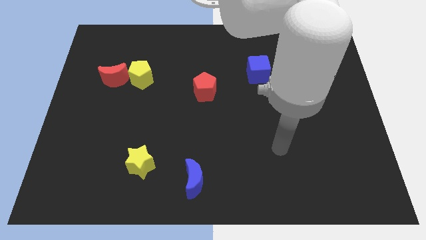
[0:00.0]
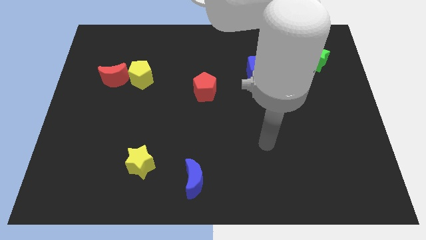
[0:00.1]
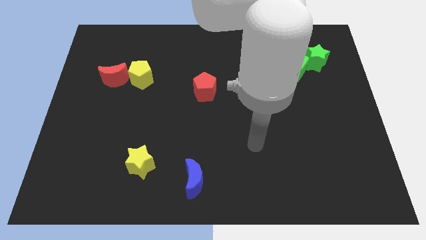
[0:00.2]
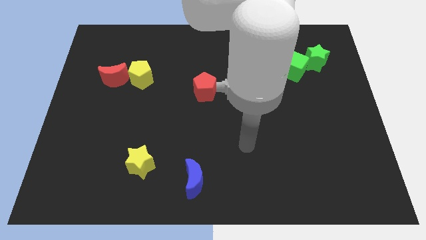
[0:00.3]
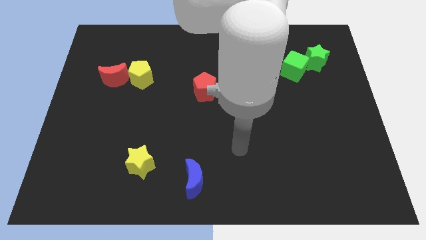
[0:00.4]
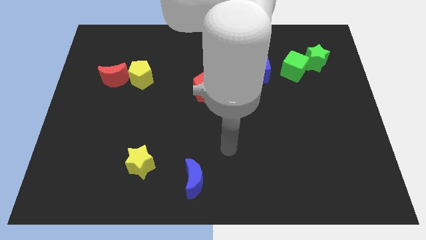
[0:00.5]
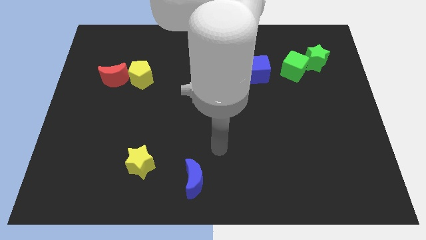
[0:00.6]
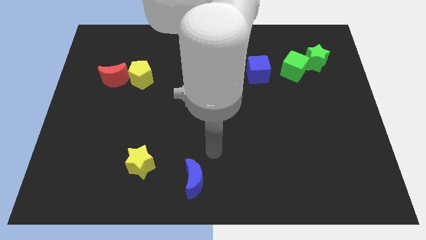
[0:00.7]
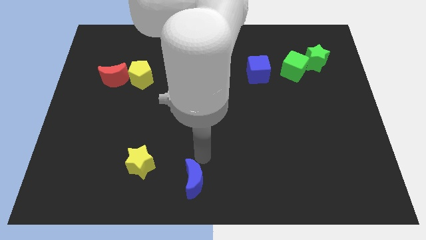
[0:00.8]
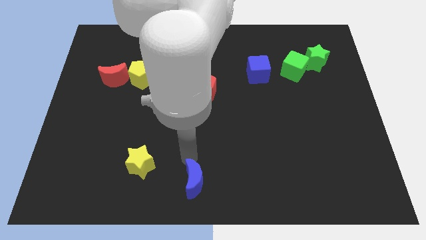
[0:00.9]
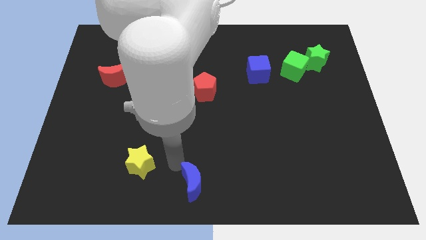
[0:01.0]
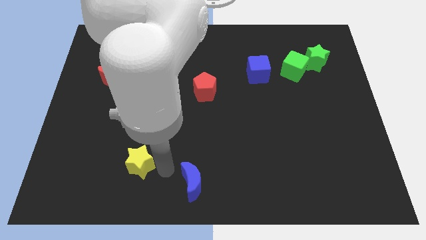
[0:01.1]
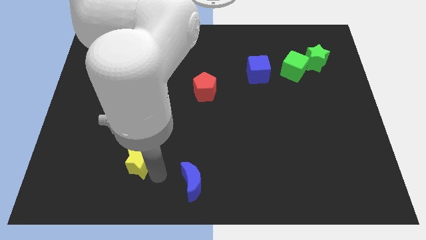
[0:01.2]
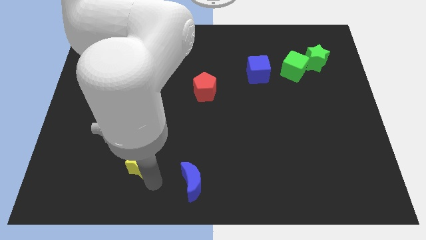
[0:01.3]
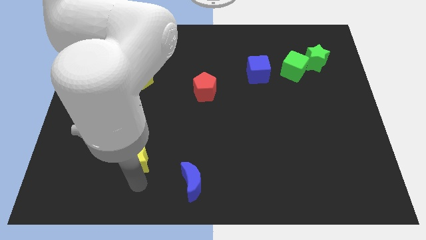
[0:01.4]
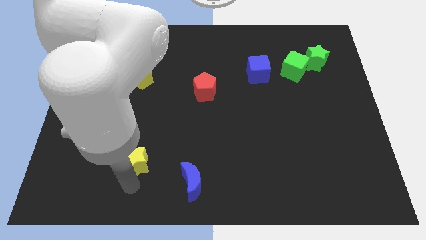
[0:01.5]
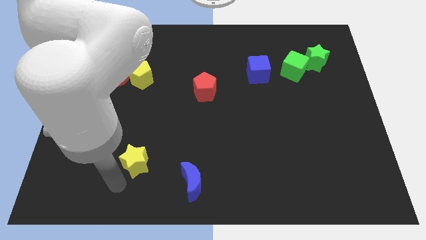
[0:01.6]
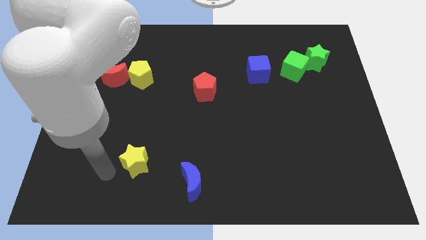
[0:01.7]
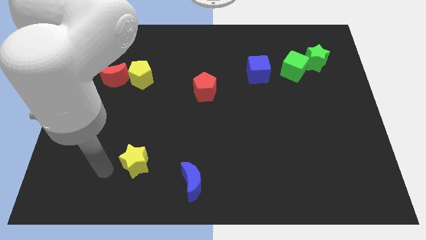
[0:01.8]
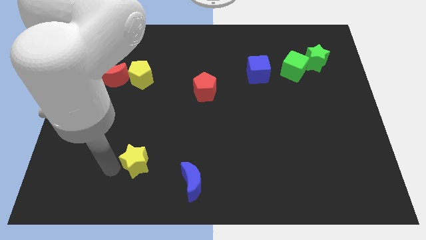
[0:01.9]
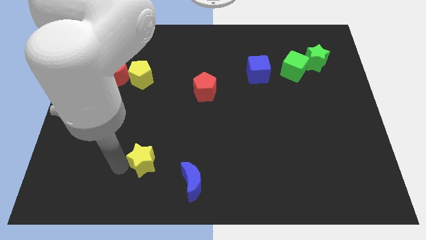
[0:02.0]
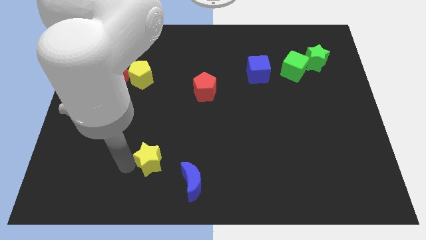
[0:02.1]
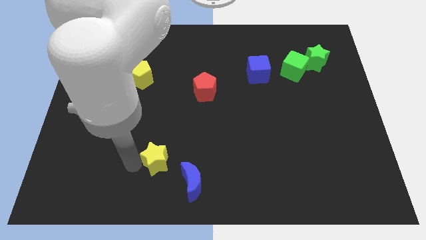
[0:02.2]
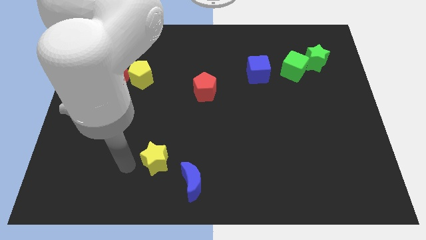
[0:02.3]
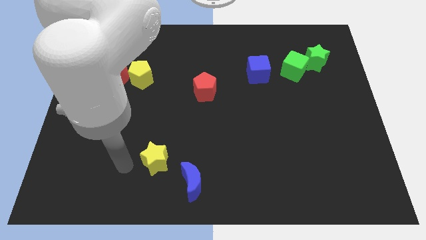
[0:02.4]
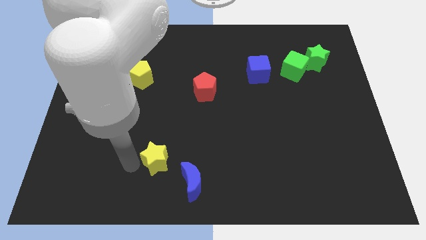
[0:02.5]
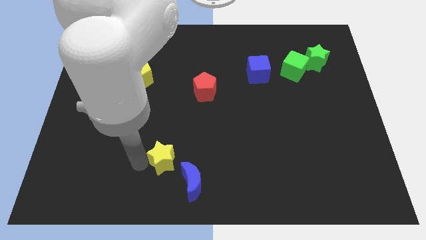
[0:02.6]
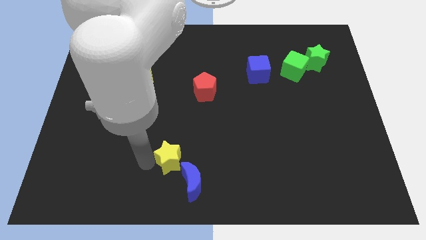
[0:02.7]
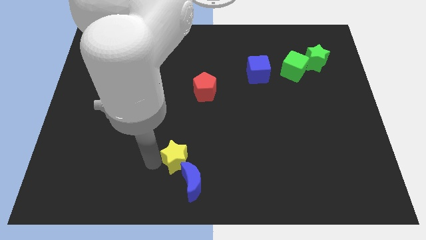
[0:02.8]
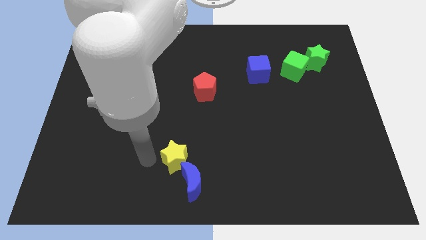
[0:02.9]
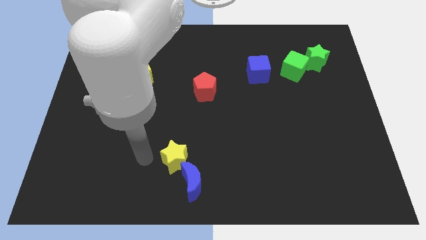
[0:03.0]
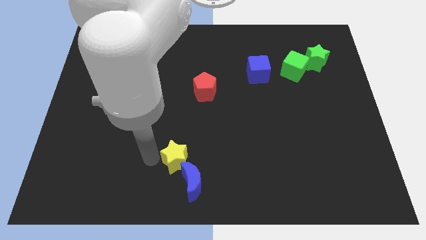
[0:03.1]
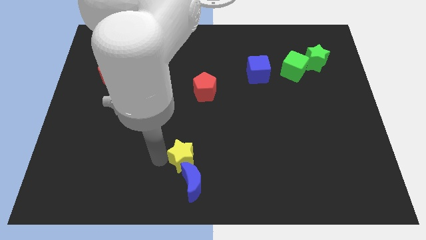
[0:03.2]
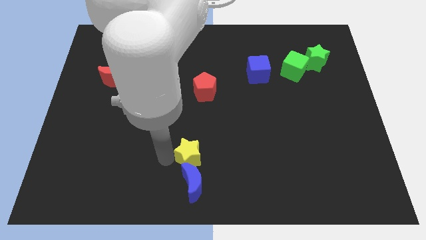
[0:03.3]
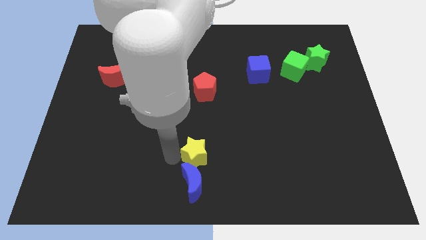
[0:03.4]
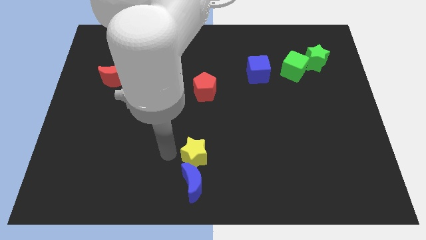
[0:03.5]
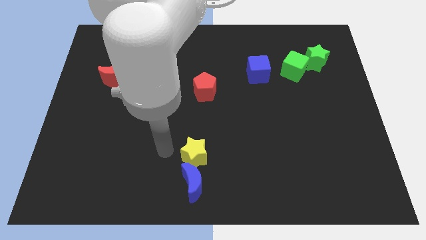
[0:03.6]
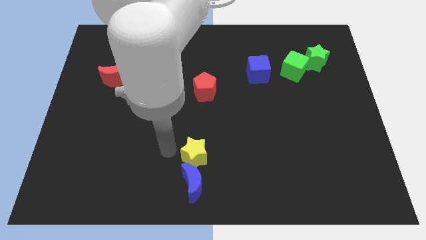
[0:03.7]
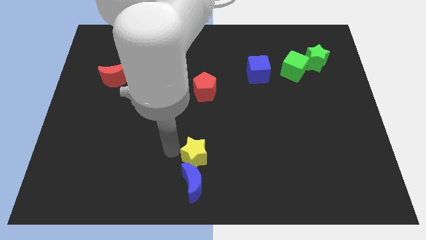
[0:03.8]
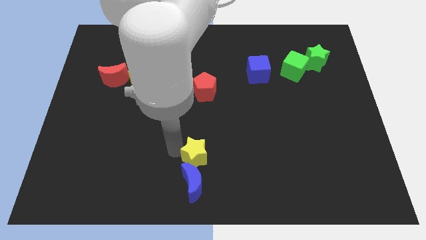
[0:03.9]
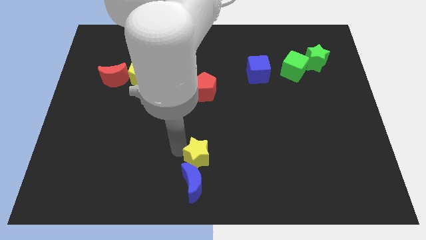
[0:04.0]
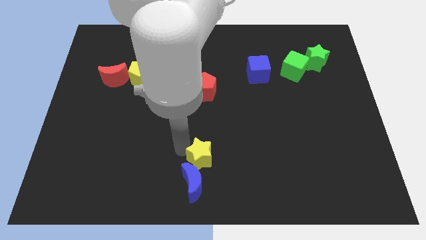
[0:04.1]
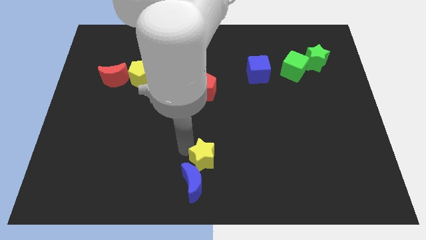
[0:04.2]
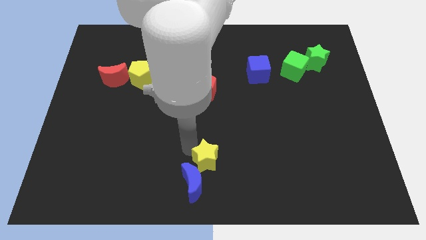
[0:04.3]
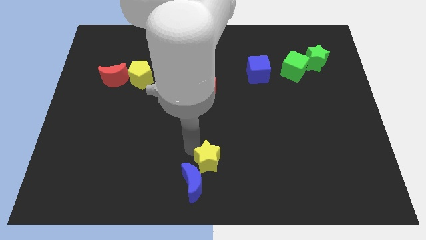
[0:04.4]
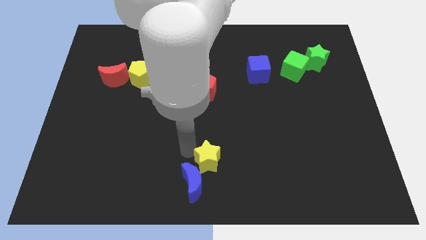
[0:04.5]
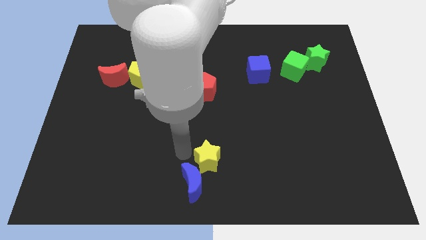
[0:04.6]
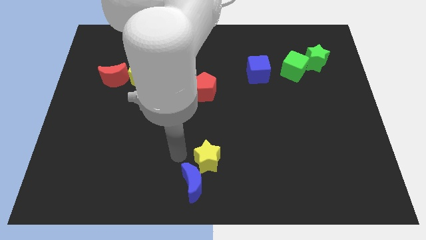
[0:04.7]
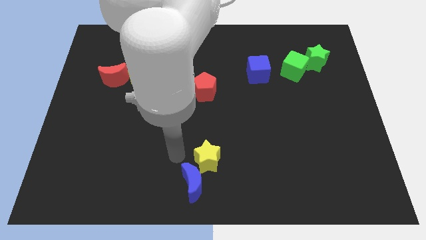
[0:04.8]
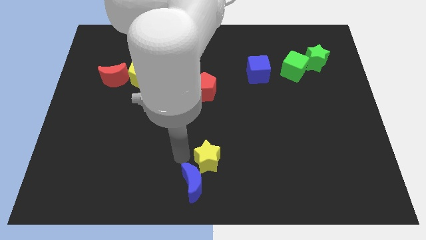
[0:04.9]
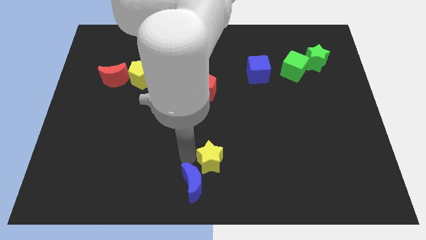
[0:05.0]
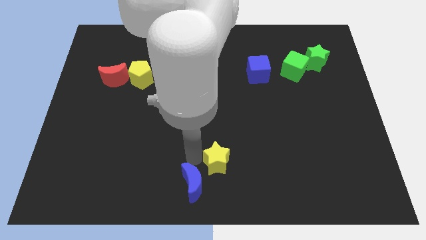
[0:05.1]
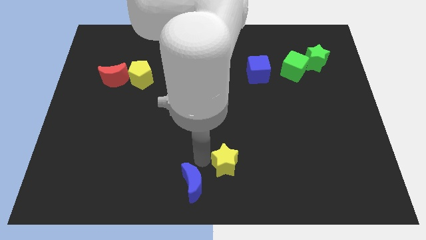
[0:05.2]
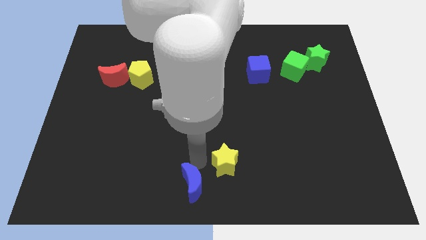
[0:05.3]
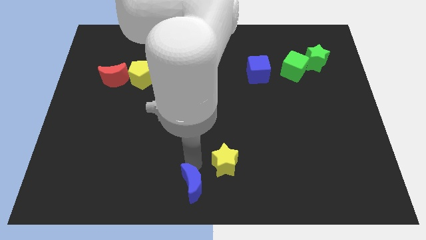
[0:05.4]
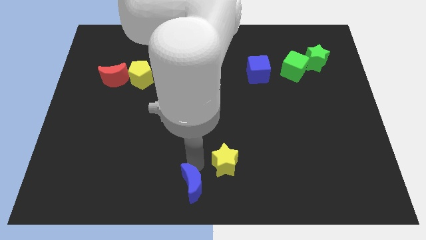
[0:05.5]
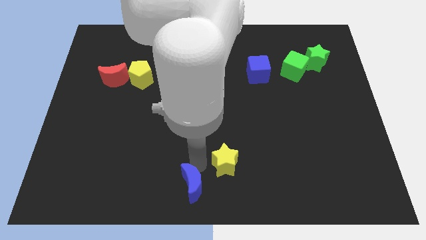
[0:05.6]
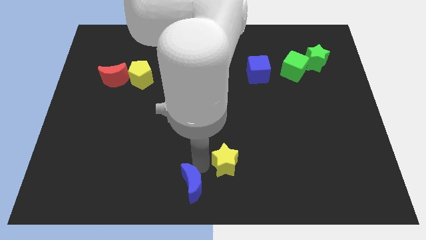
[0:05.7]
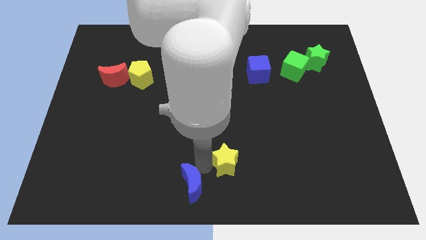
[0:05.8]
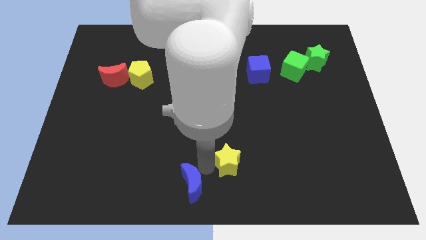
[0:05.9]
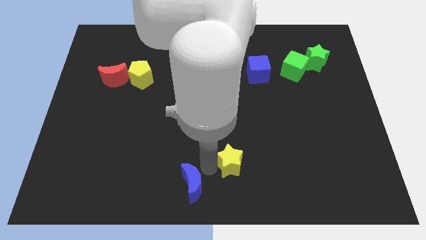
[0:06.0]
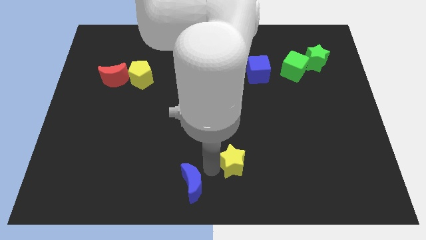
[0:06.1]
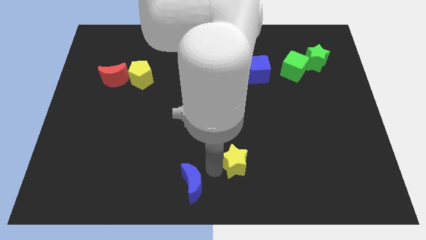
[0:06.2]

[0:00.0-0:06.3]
push the yellow star to the right

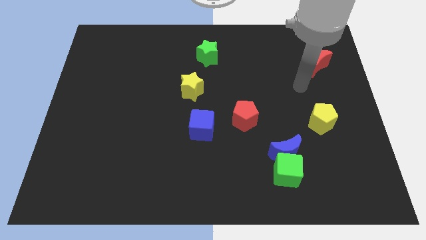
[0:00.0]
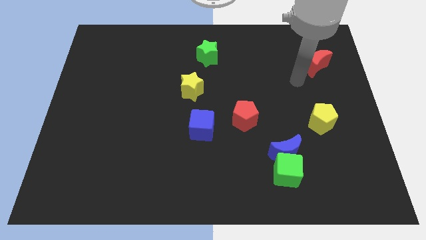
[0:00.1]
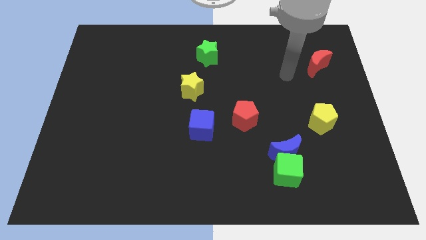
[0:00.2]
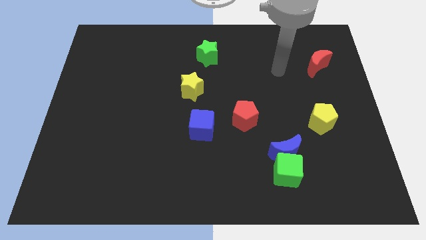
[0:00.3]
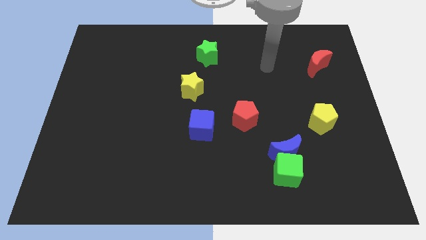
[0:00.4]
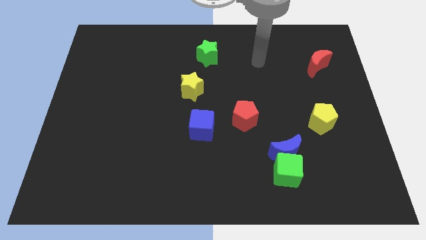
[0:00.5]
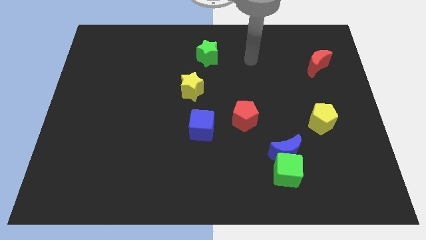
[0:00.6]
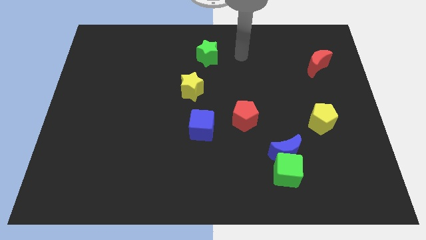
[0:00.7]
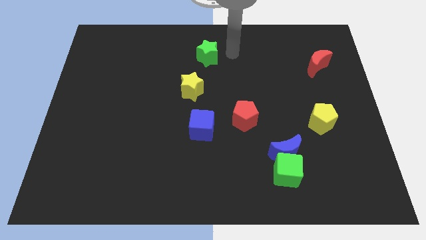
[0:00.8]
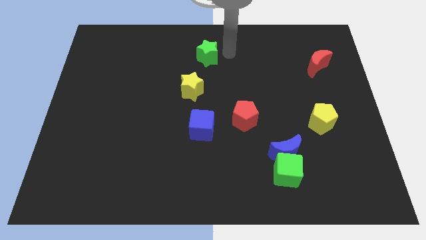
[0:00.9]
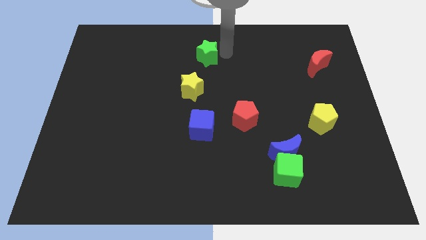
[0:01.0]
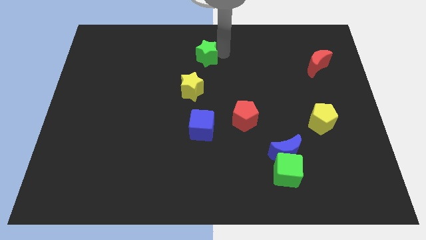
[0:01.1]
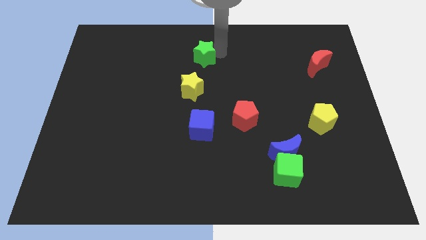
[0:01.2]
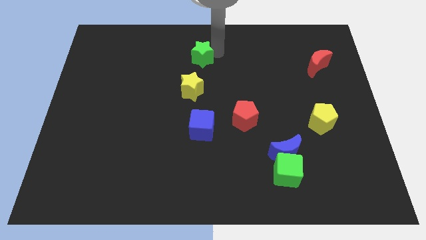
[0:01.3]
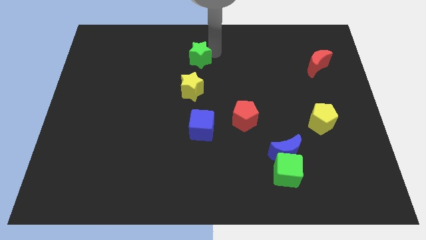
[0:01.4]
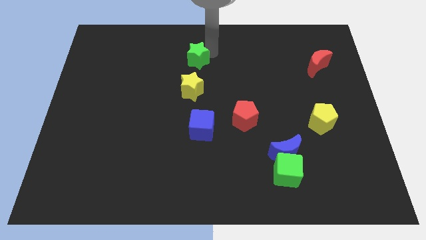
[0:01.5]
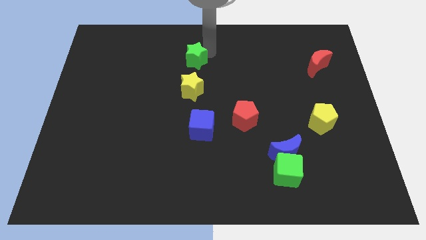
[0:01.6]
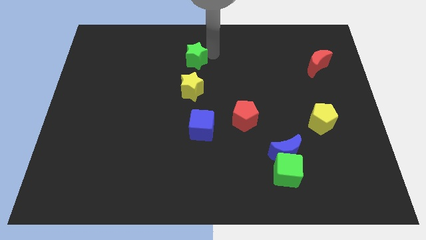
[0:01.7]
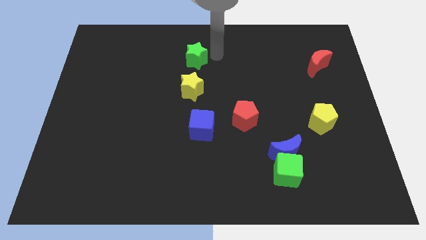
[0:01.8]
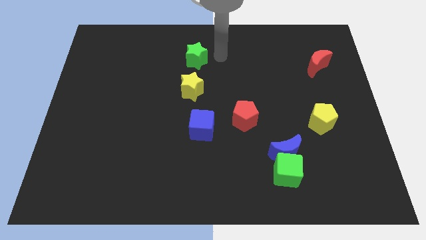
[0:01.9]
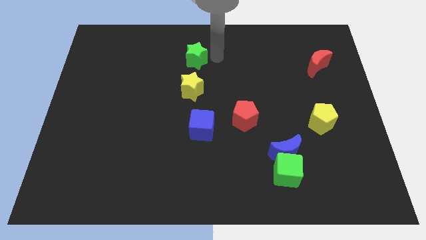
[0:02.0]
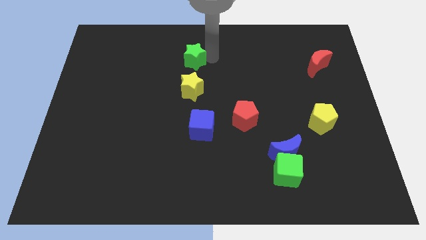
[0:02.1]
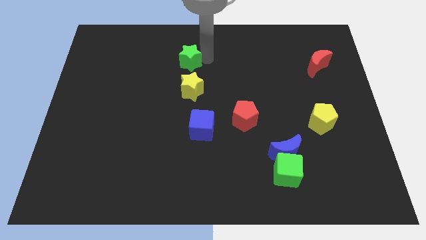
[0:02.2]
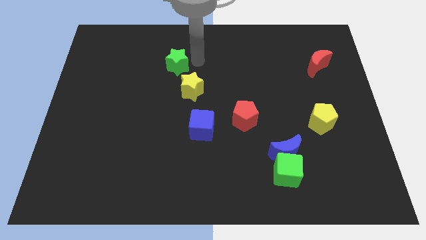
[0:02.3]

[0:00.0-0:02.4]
slightly push the green star to the left
